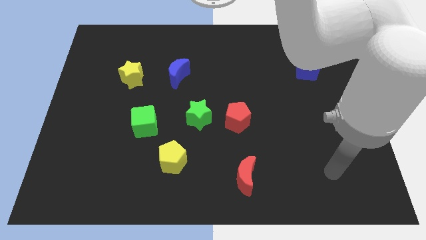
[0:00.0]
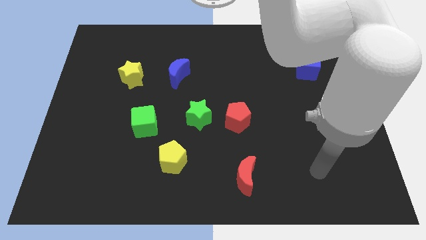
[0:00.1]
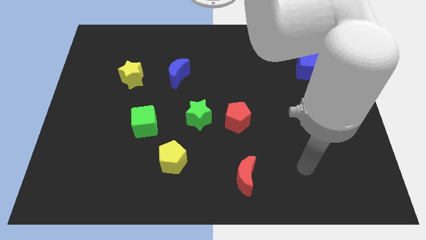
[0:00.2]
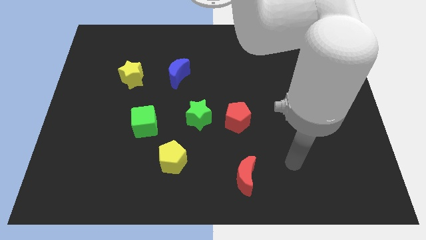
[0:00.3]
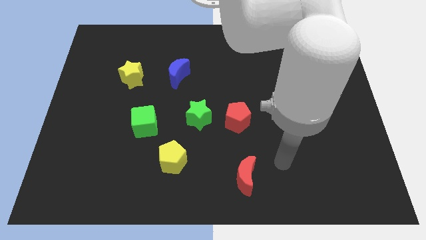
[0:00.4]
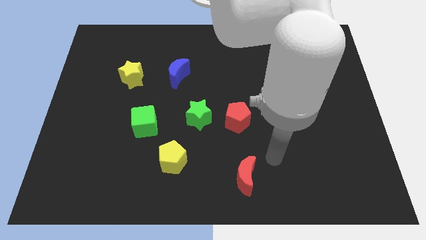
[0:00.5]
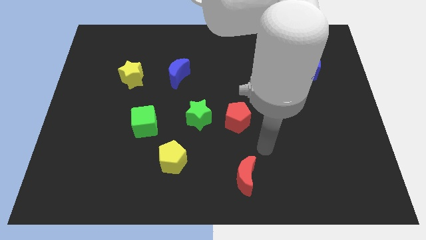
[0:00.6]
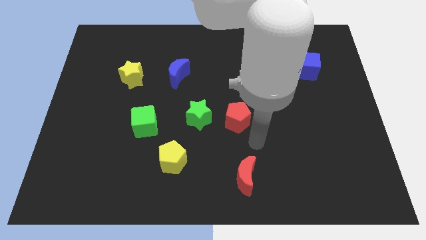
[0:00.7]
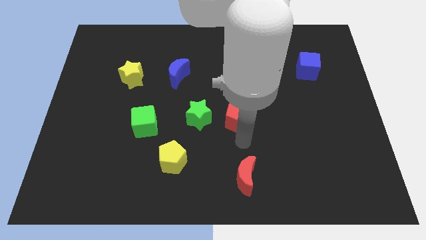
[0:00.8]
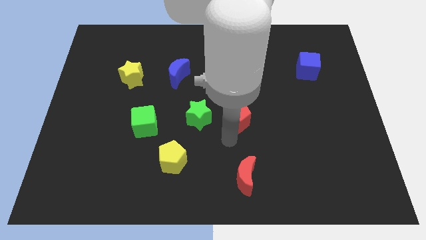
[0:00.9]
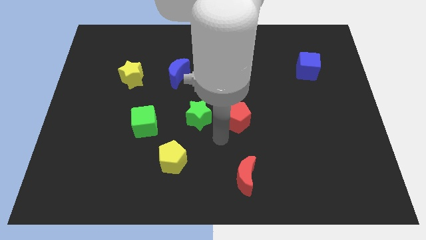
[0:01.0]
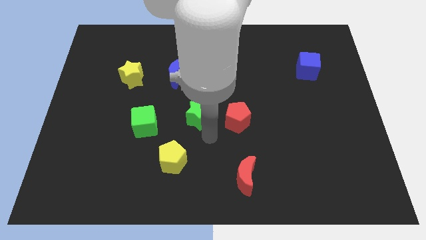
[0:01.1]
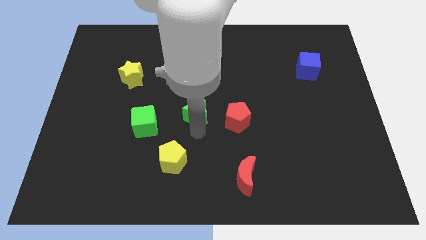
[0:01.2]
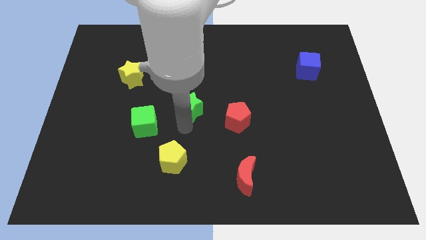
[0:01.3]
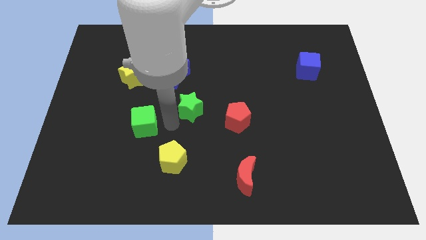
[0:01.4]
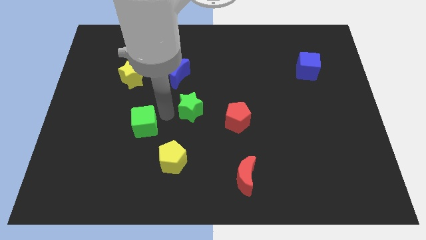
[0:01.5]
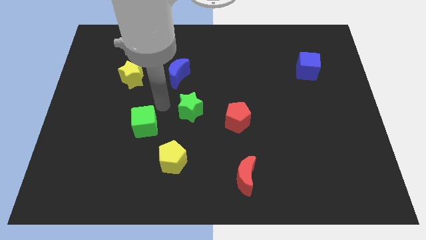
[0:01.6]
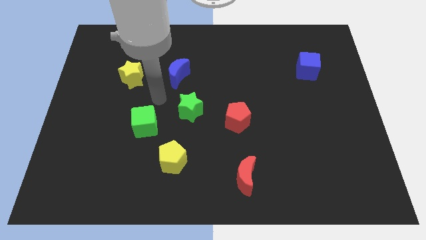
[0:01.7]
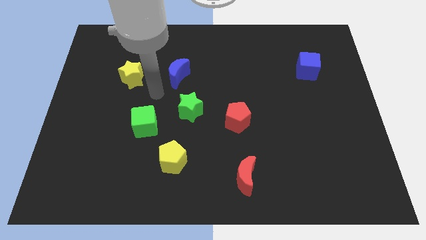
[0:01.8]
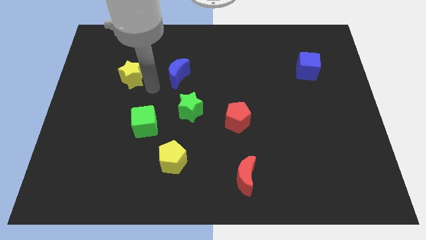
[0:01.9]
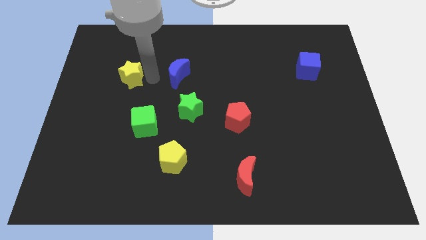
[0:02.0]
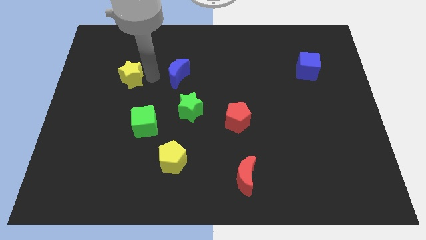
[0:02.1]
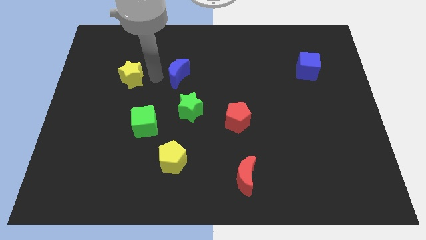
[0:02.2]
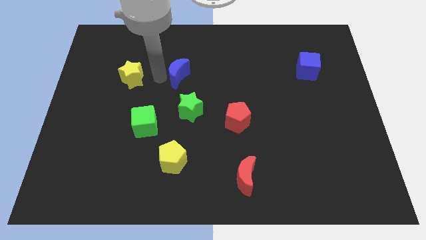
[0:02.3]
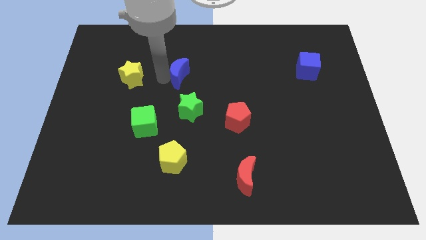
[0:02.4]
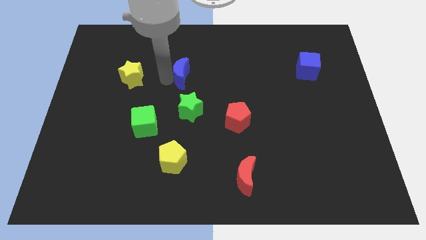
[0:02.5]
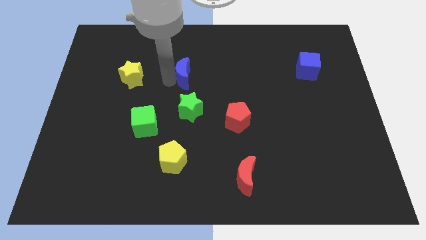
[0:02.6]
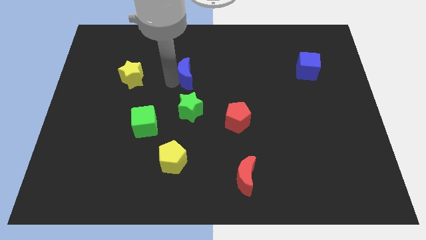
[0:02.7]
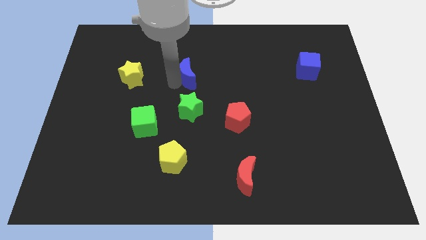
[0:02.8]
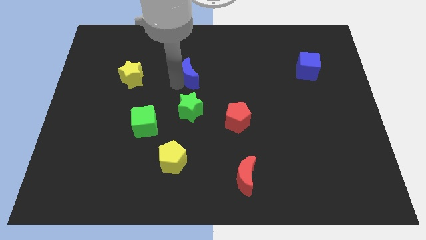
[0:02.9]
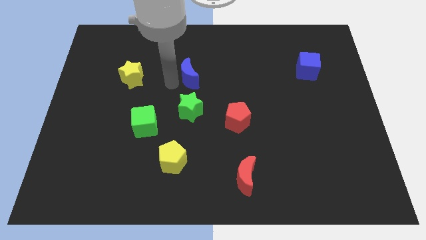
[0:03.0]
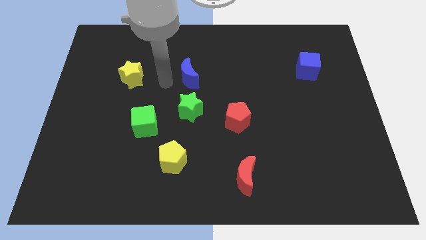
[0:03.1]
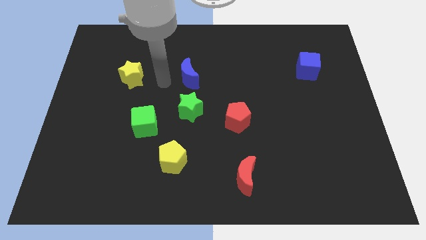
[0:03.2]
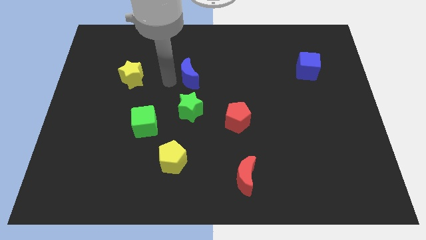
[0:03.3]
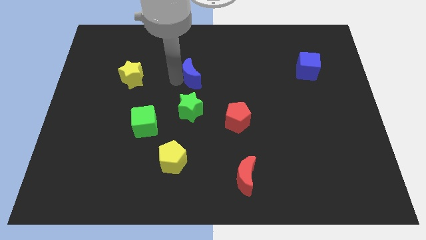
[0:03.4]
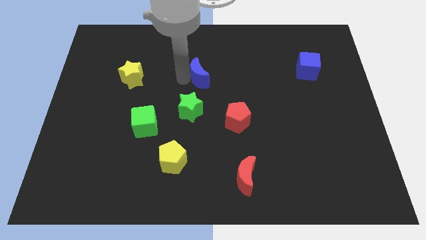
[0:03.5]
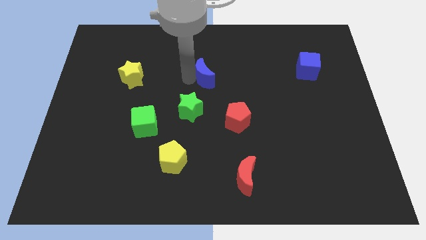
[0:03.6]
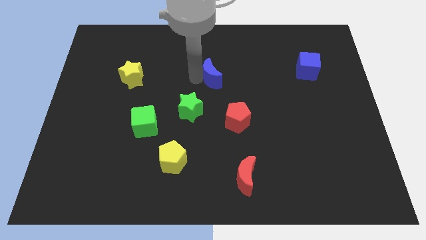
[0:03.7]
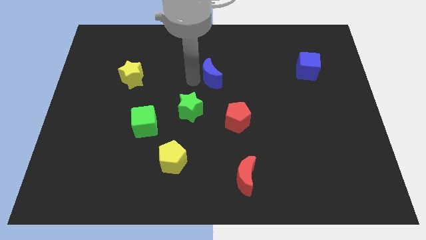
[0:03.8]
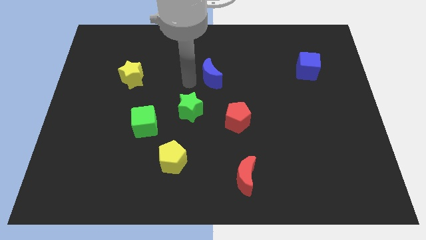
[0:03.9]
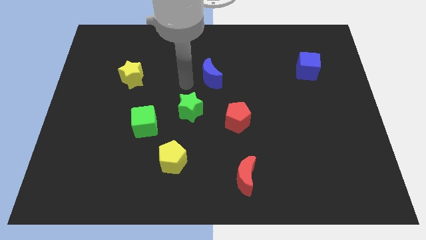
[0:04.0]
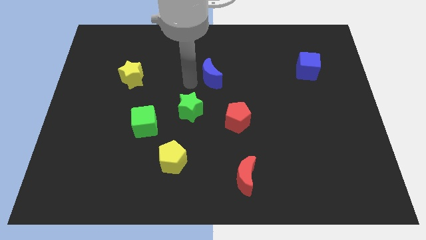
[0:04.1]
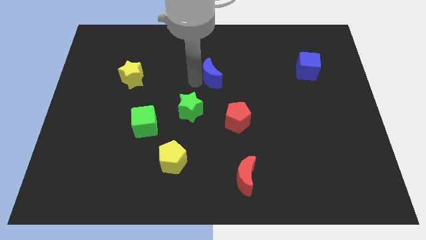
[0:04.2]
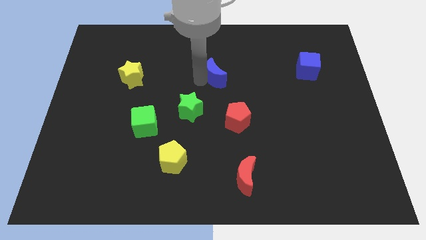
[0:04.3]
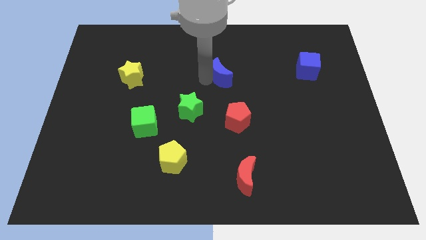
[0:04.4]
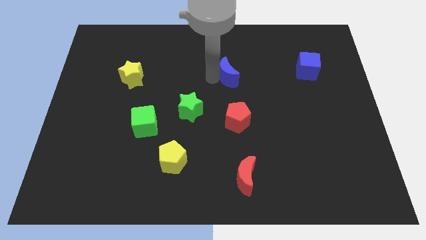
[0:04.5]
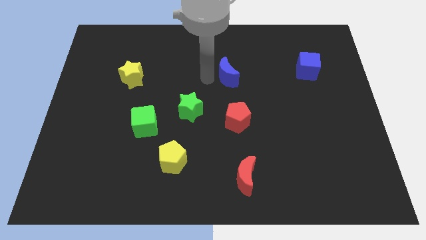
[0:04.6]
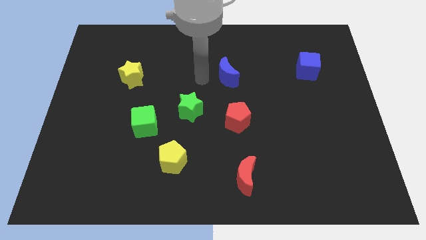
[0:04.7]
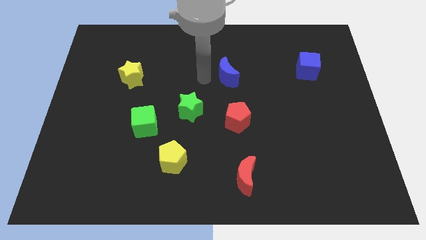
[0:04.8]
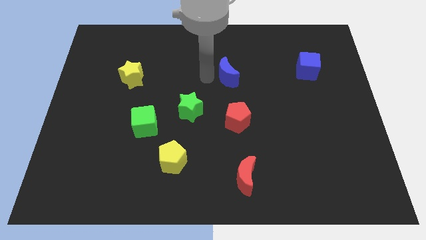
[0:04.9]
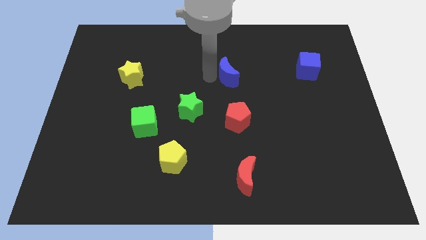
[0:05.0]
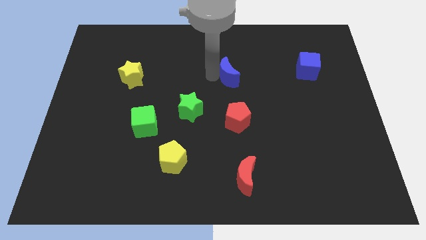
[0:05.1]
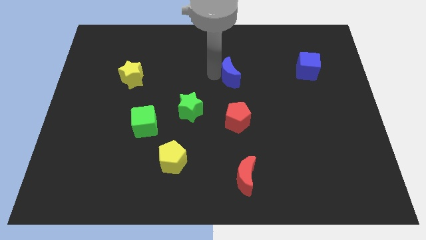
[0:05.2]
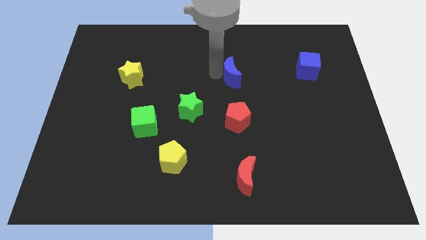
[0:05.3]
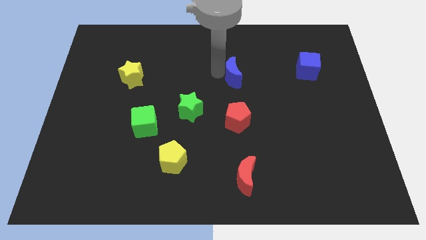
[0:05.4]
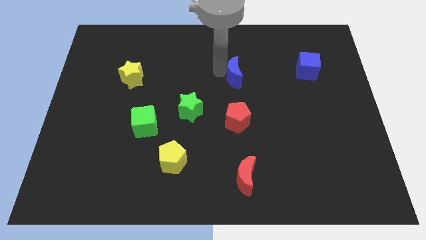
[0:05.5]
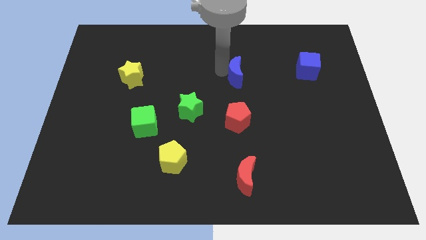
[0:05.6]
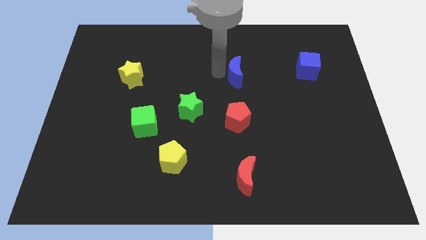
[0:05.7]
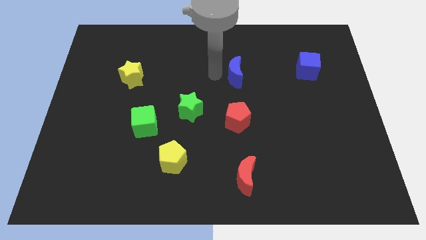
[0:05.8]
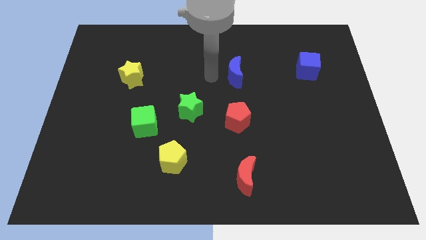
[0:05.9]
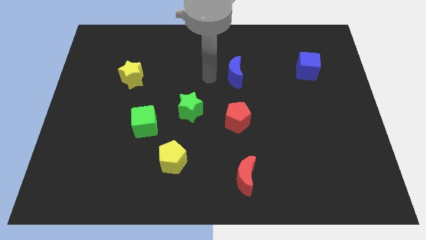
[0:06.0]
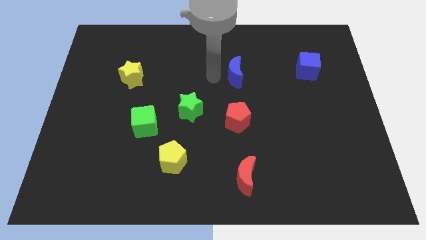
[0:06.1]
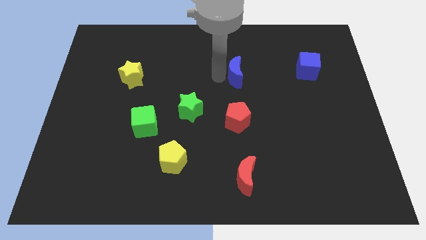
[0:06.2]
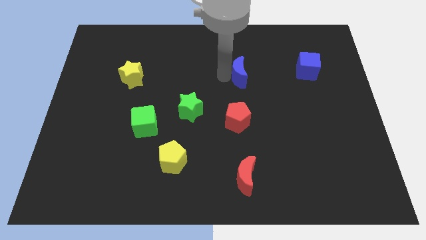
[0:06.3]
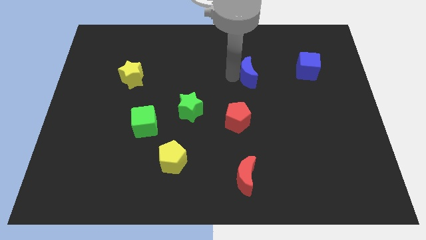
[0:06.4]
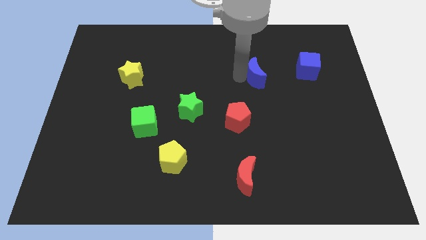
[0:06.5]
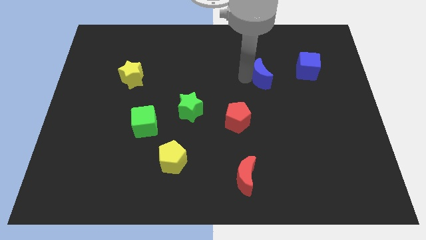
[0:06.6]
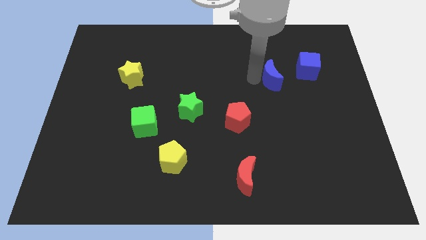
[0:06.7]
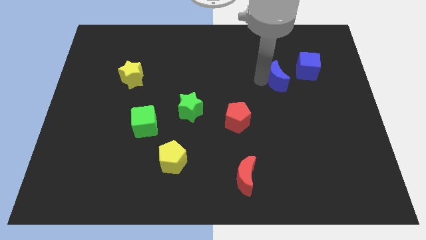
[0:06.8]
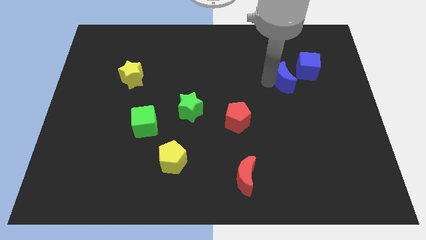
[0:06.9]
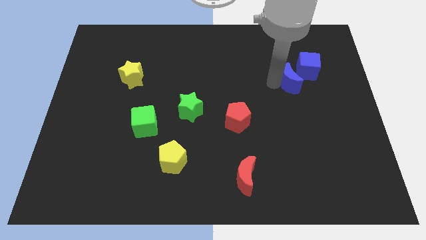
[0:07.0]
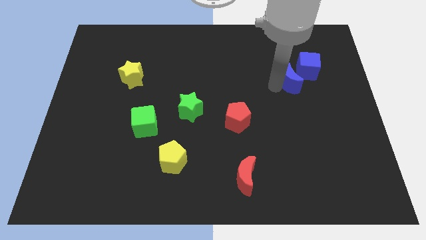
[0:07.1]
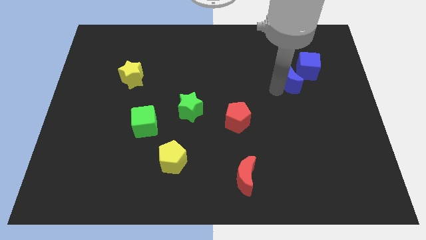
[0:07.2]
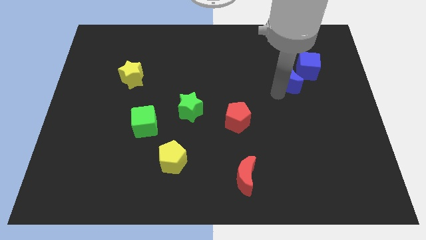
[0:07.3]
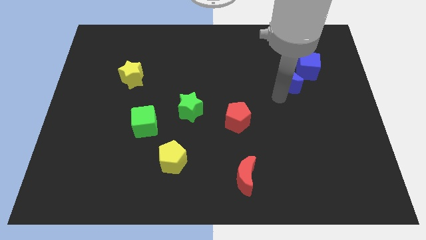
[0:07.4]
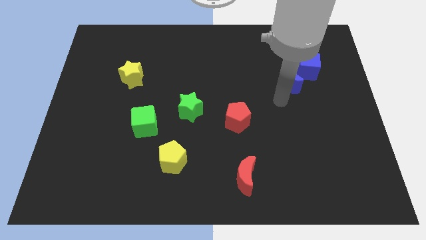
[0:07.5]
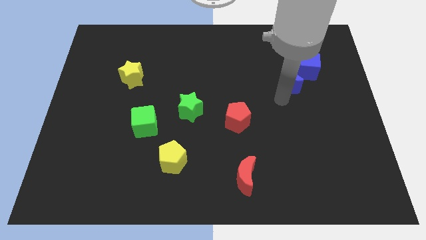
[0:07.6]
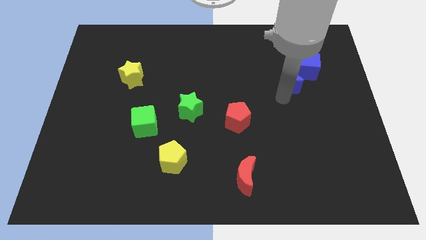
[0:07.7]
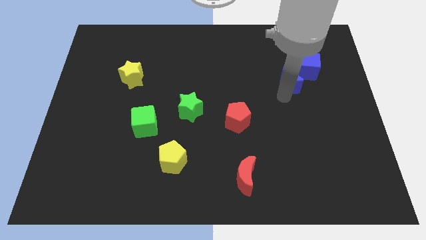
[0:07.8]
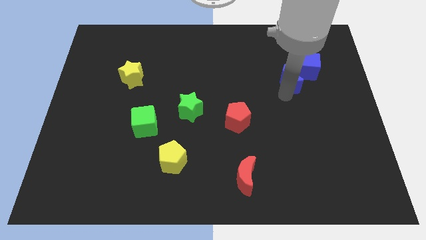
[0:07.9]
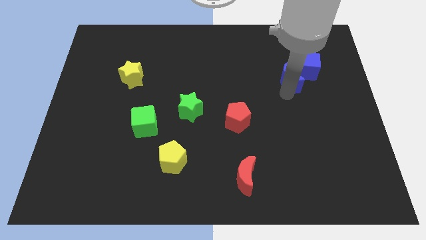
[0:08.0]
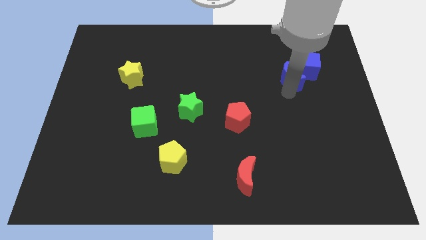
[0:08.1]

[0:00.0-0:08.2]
slide the blue moon to the blue cube
